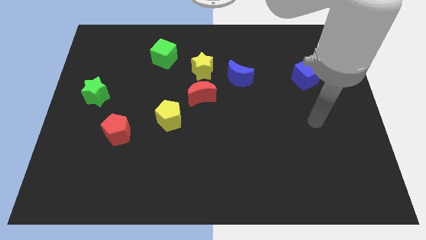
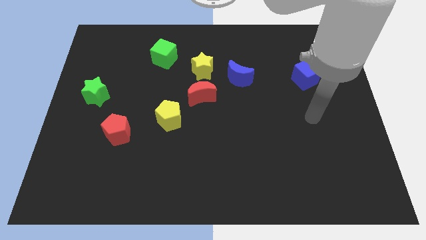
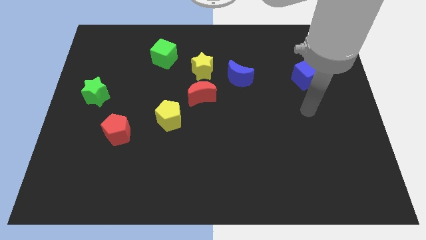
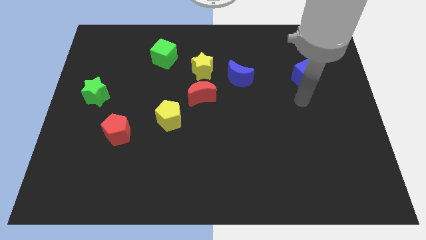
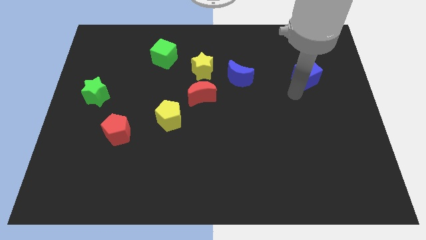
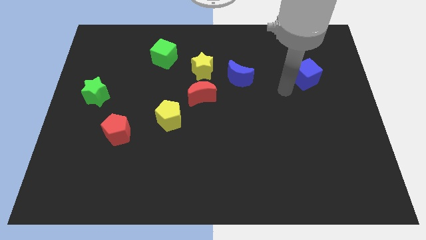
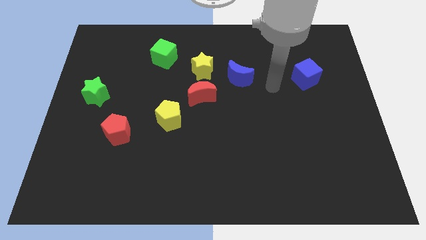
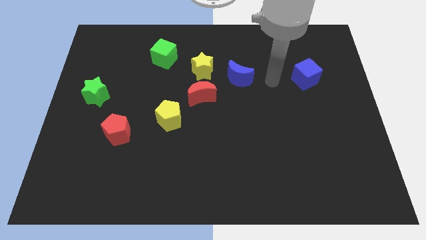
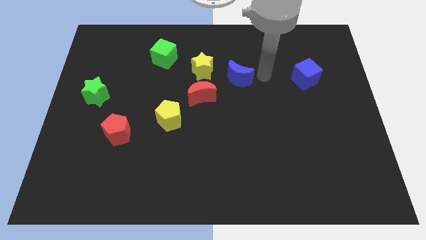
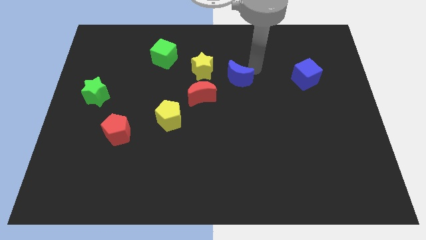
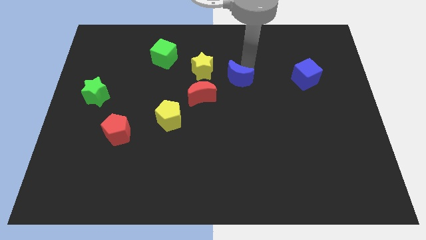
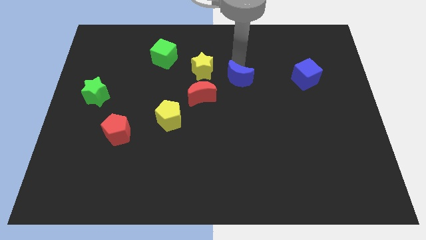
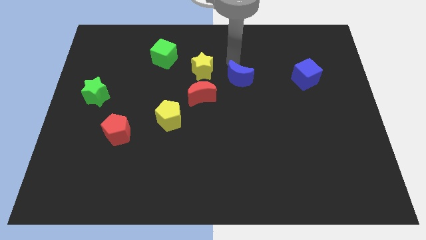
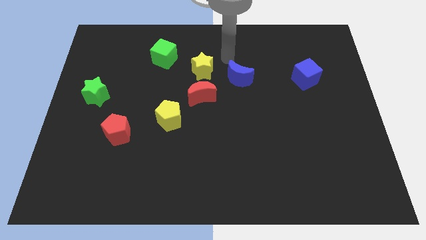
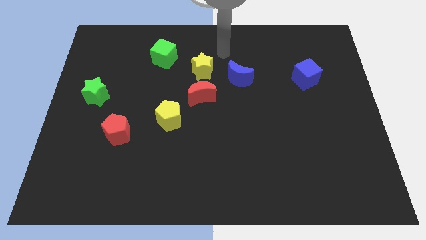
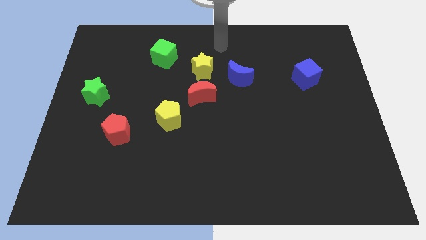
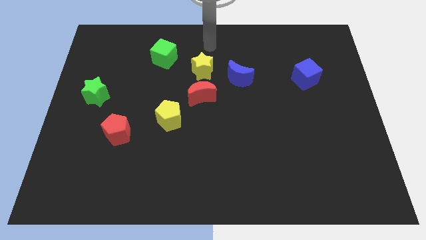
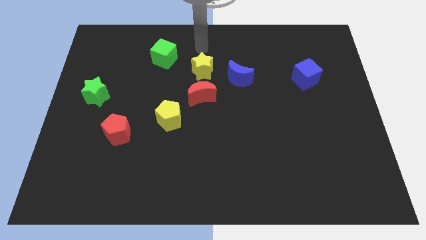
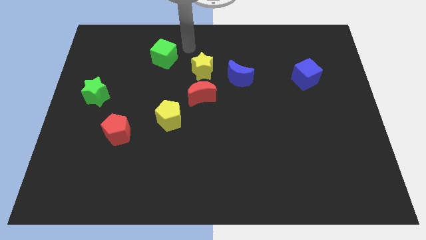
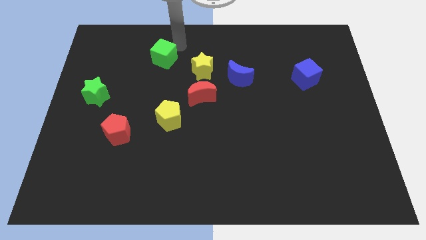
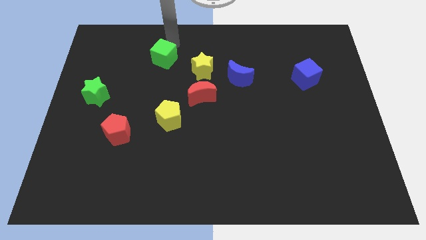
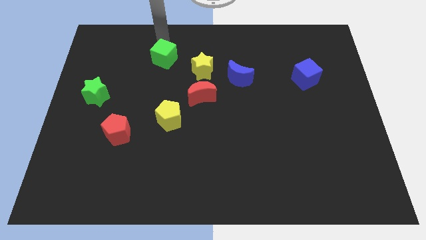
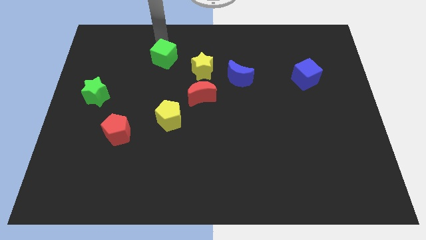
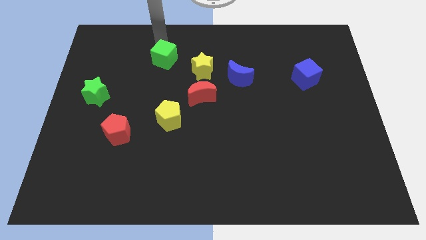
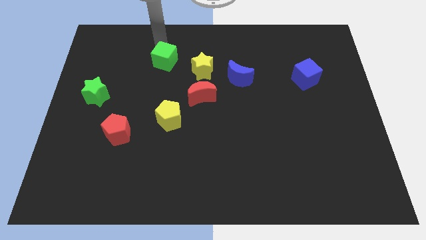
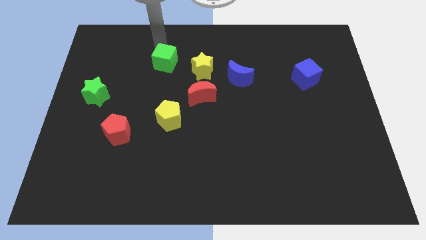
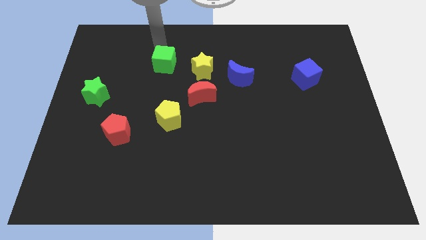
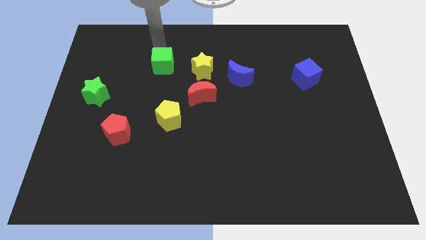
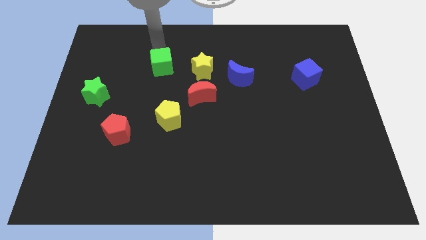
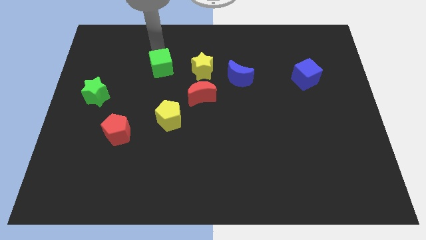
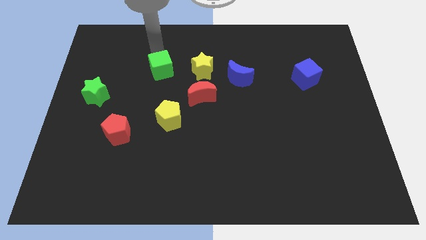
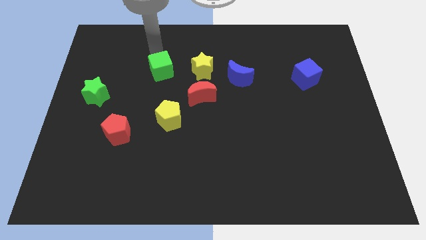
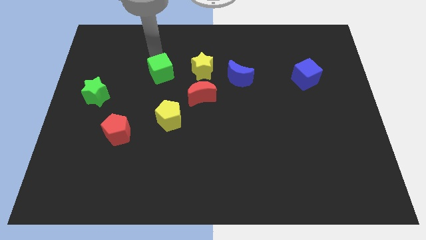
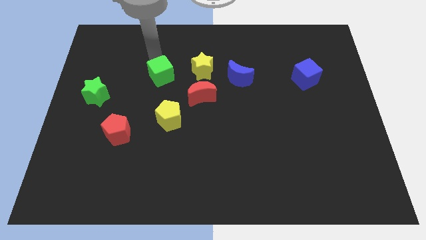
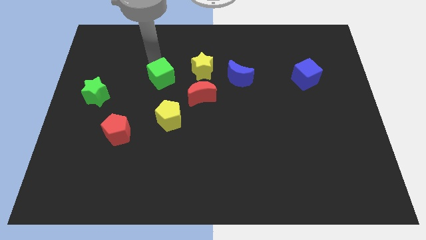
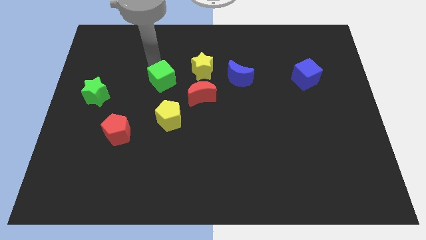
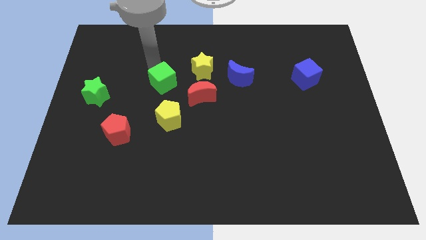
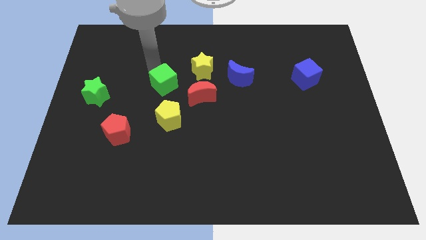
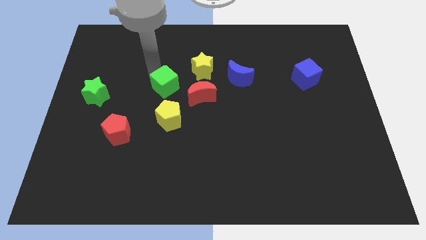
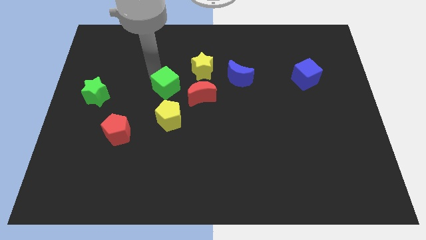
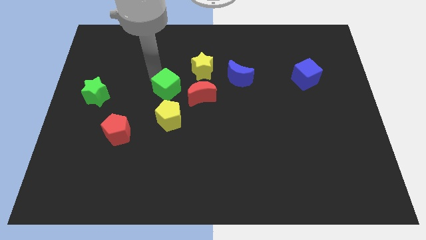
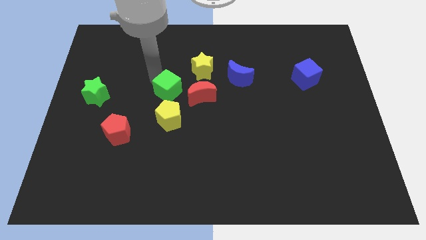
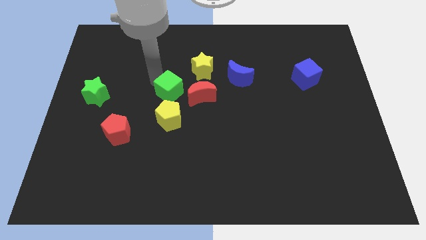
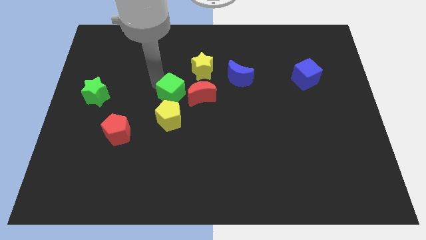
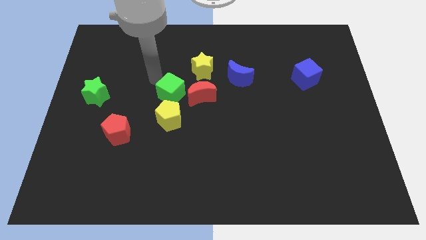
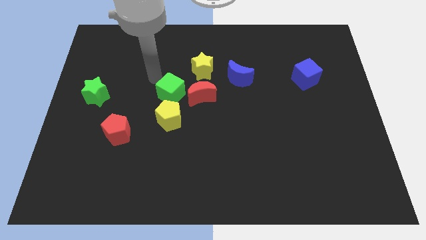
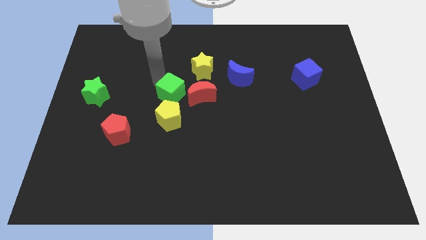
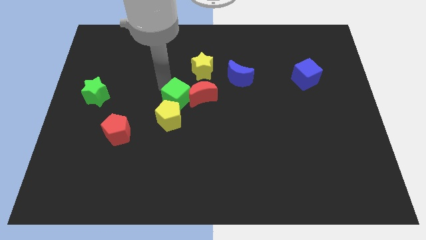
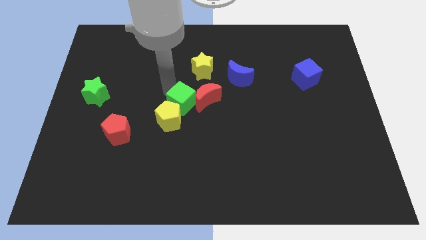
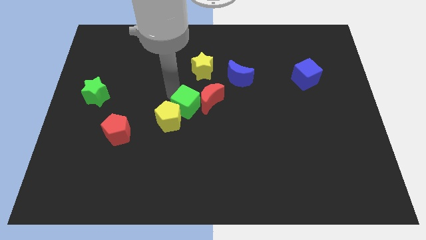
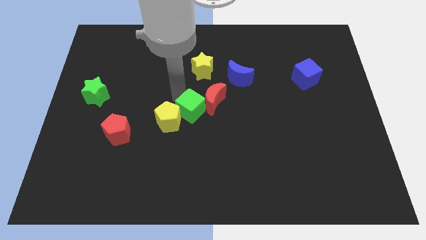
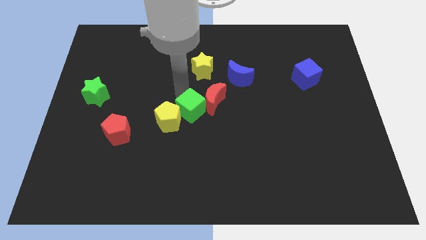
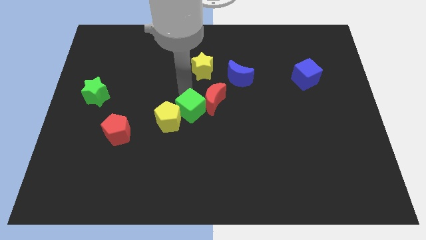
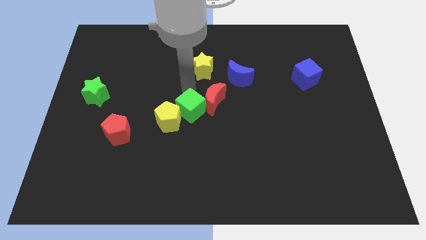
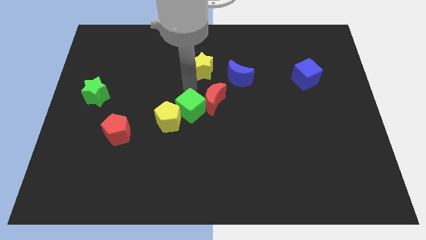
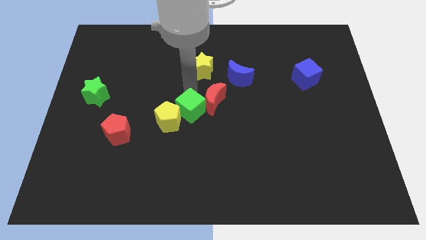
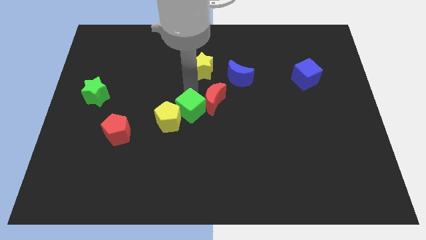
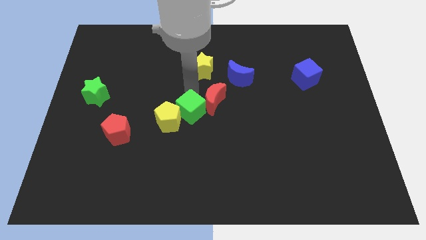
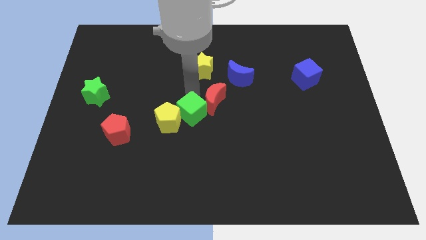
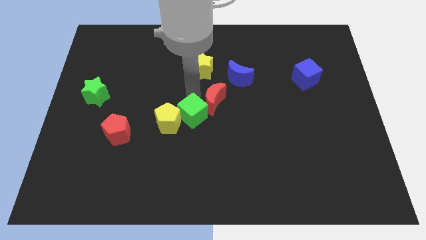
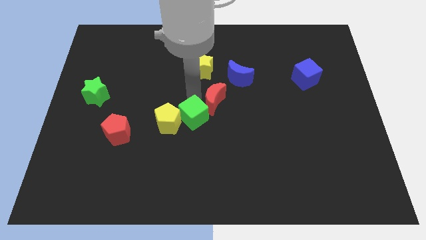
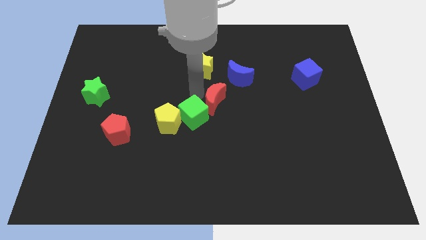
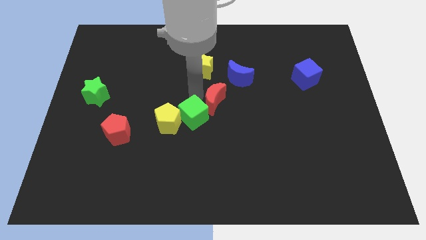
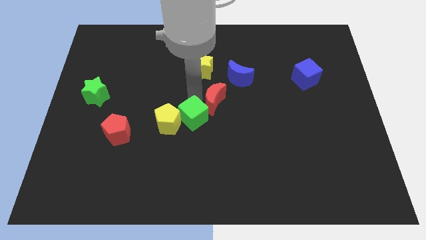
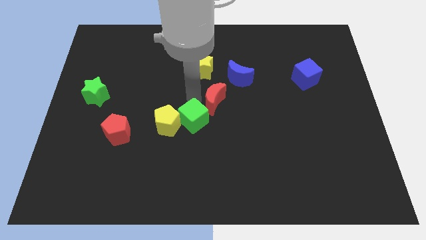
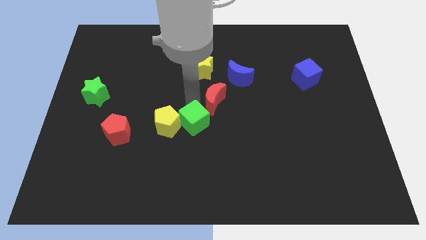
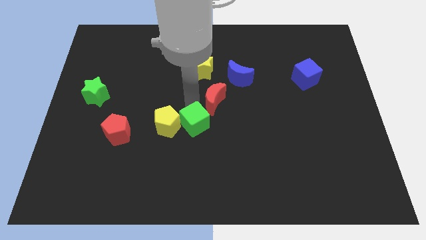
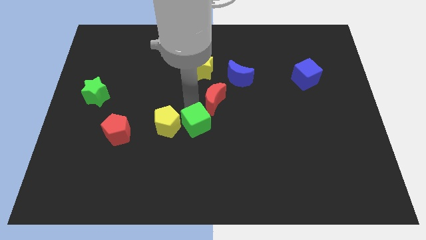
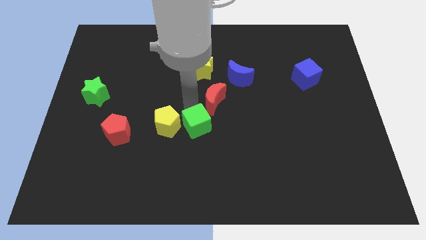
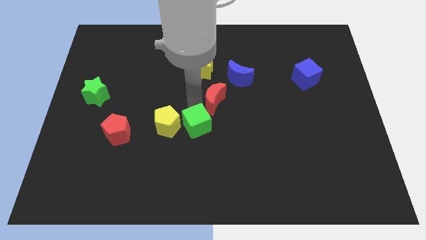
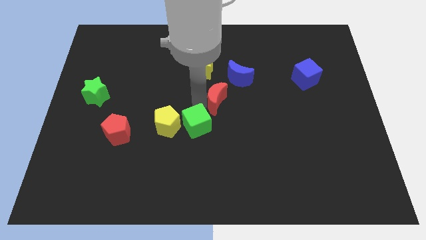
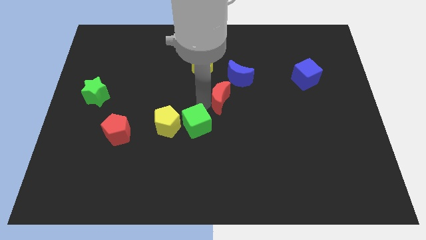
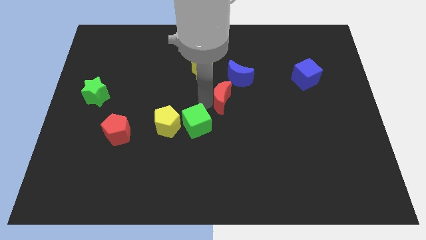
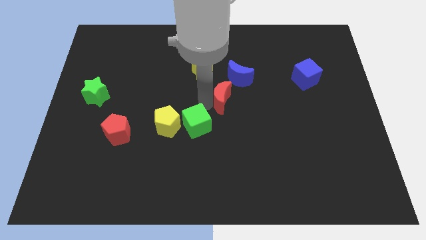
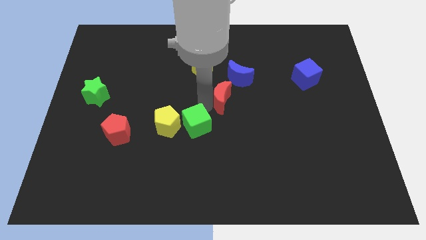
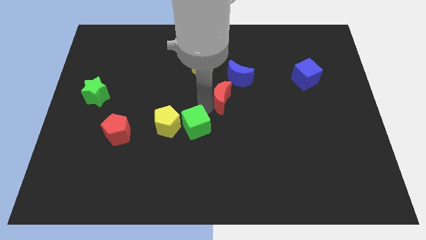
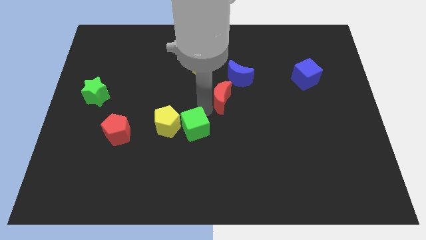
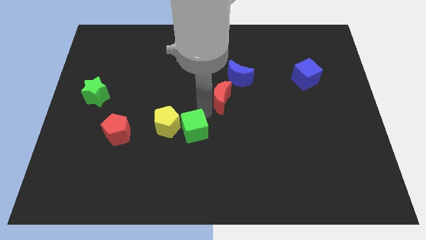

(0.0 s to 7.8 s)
slide the green cube down

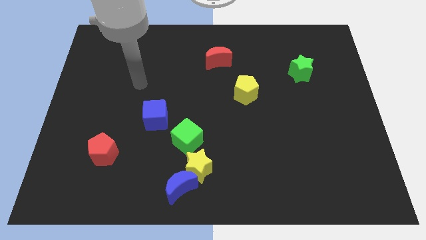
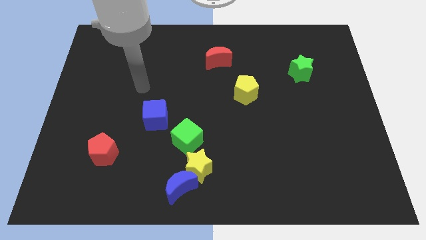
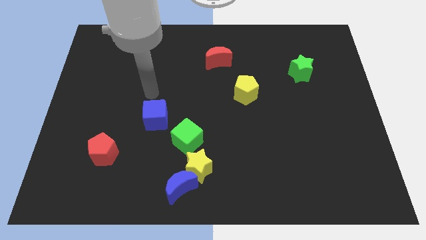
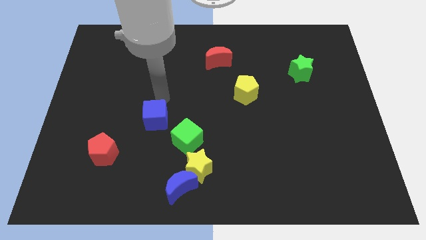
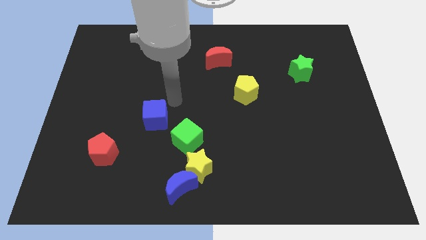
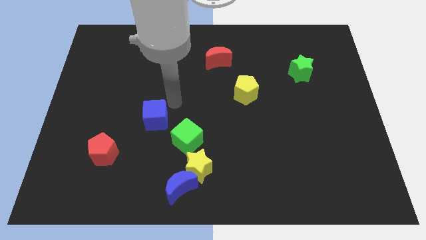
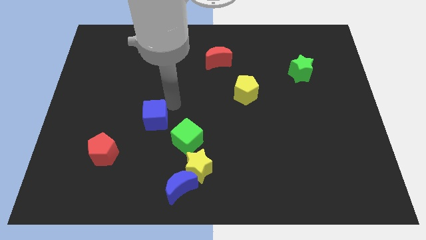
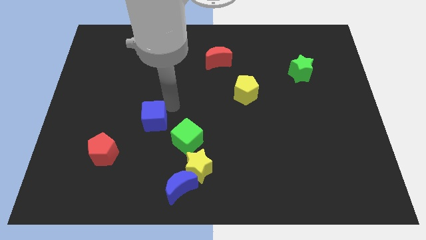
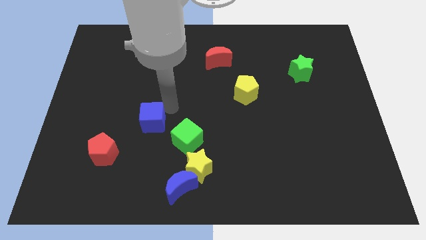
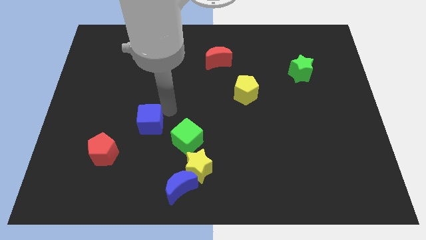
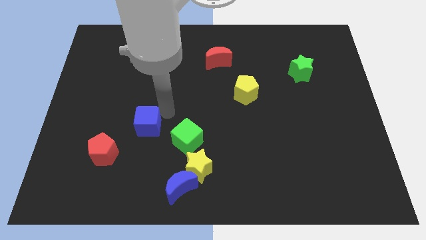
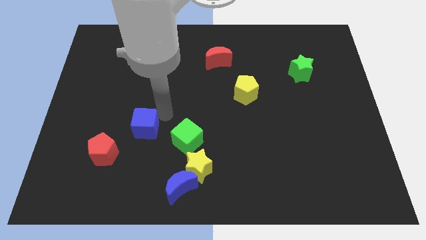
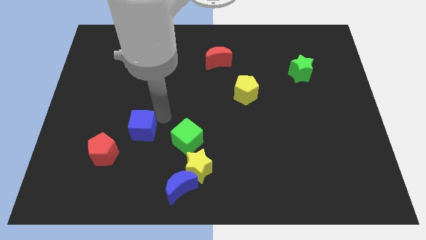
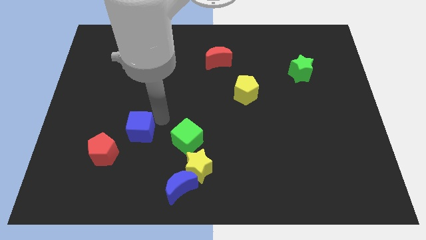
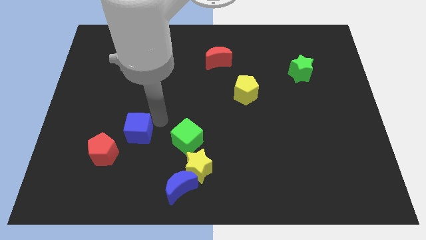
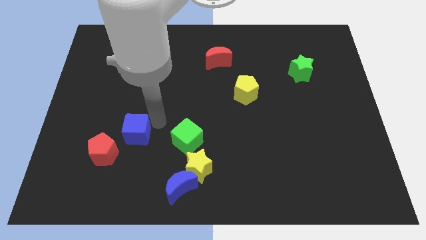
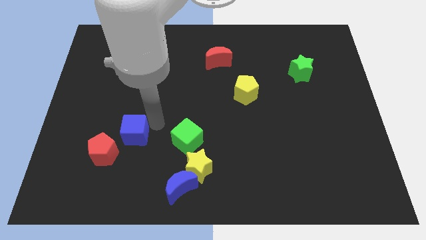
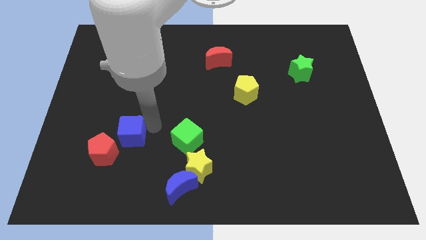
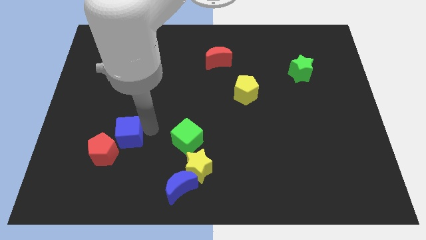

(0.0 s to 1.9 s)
slightly slide the blue cube down and to the left
